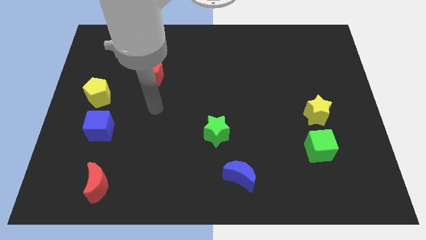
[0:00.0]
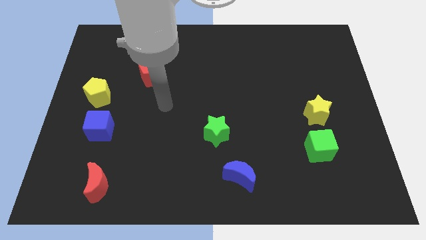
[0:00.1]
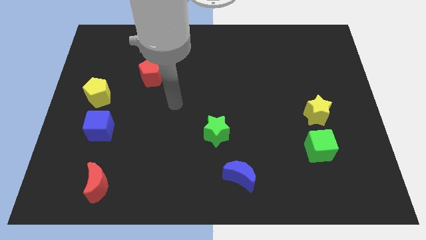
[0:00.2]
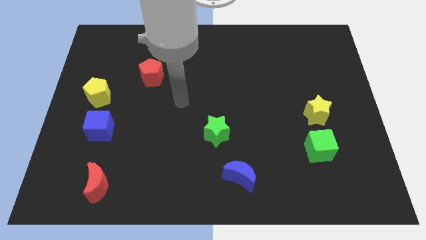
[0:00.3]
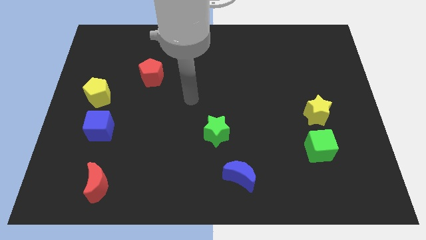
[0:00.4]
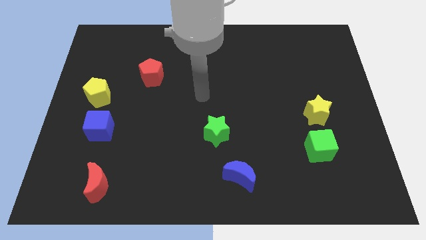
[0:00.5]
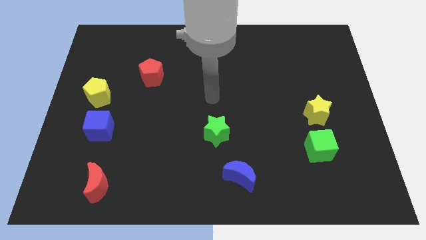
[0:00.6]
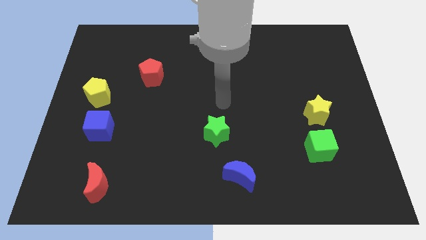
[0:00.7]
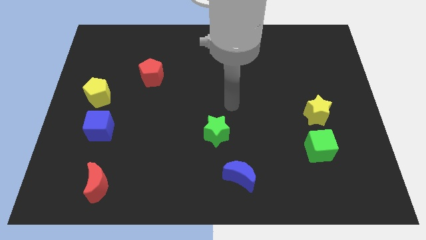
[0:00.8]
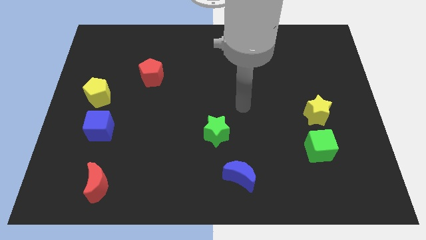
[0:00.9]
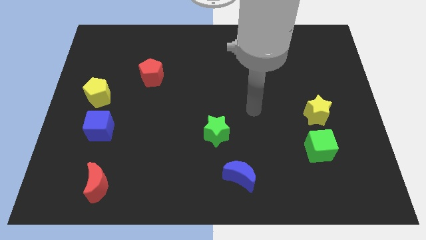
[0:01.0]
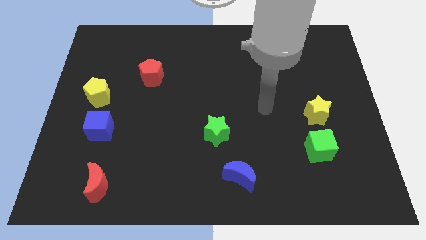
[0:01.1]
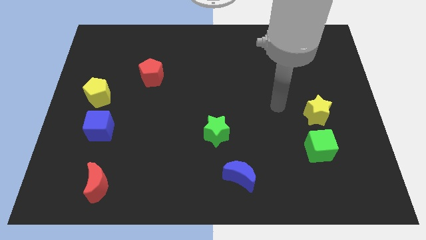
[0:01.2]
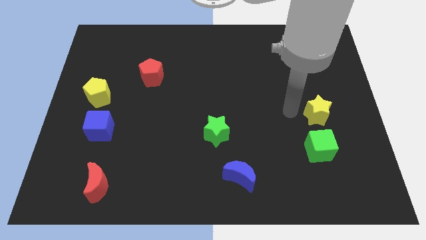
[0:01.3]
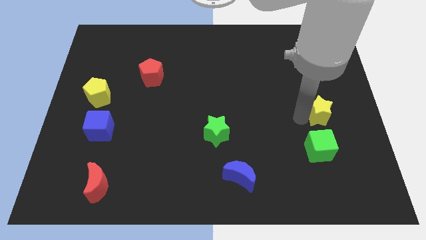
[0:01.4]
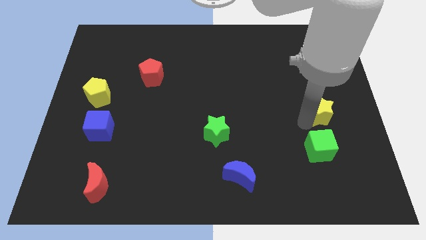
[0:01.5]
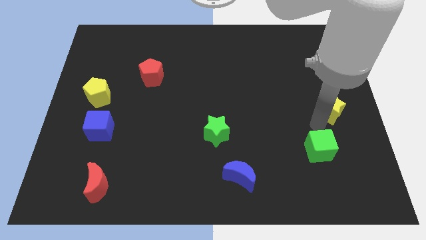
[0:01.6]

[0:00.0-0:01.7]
pull the green cube apart from the yellow star

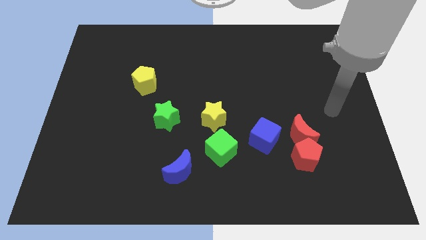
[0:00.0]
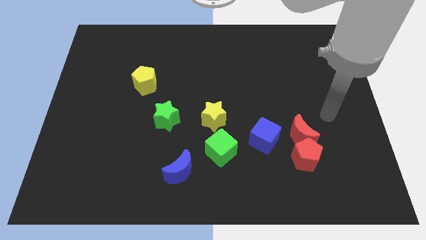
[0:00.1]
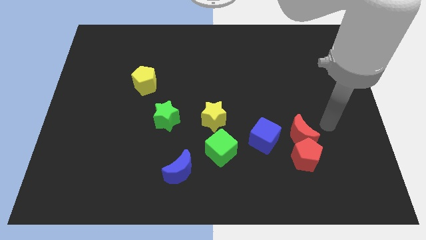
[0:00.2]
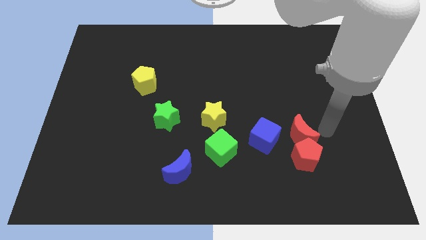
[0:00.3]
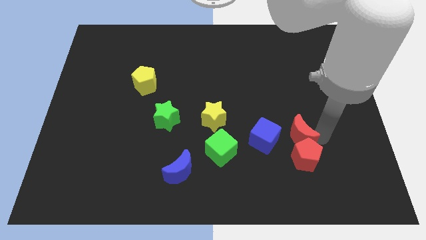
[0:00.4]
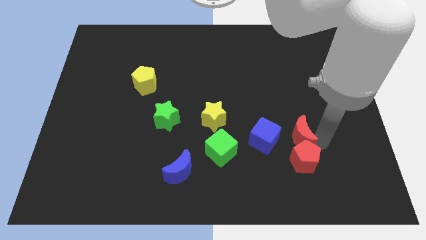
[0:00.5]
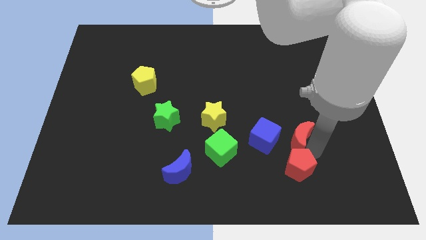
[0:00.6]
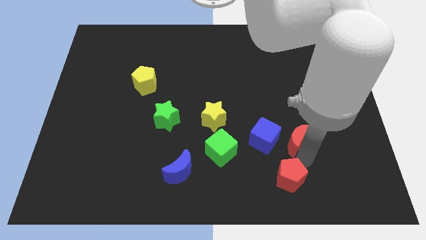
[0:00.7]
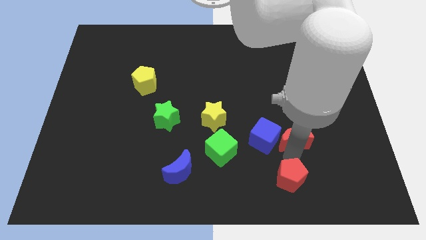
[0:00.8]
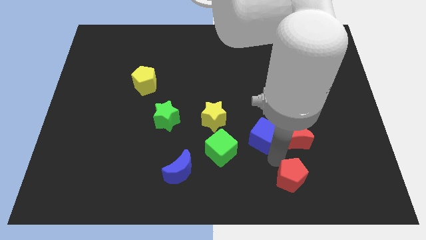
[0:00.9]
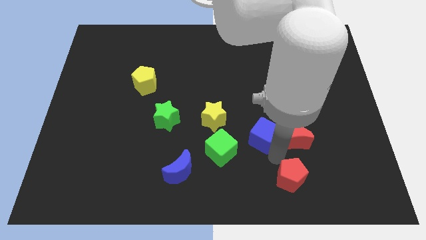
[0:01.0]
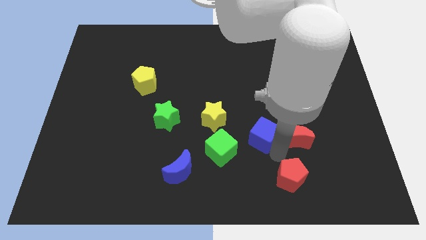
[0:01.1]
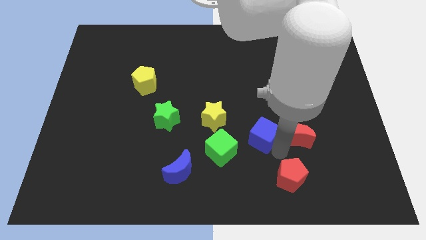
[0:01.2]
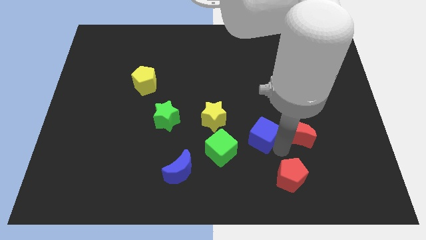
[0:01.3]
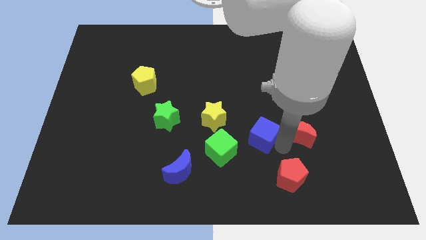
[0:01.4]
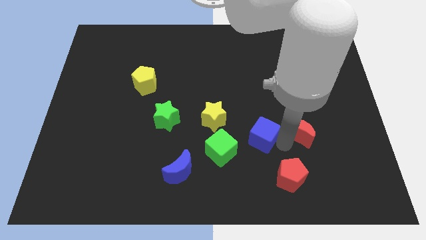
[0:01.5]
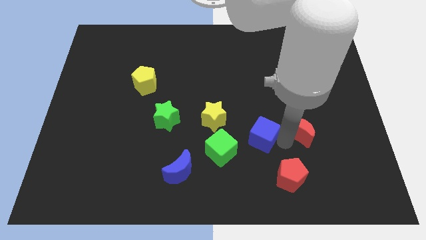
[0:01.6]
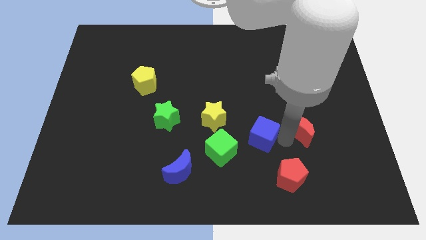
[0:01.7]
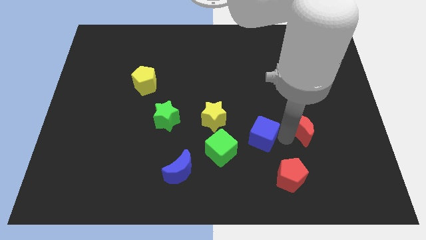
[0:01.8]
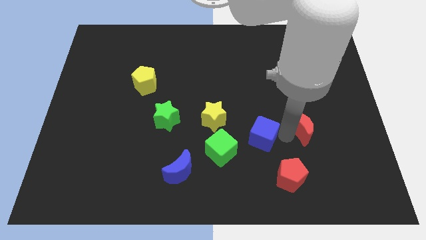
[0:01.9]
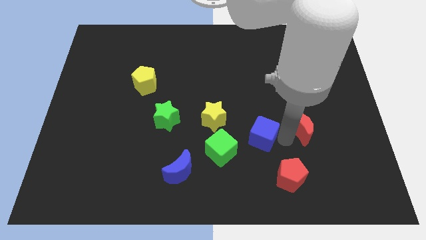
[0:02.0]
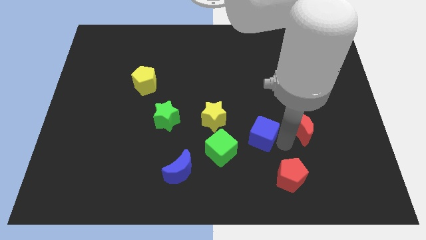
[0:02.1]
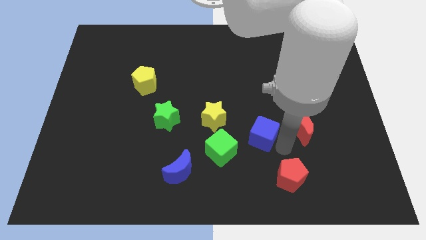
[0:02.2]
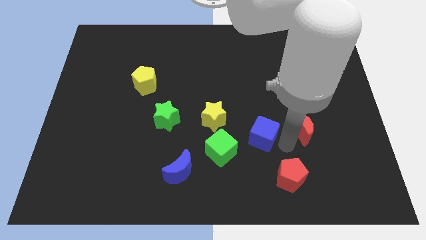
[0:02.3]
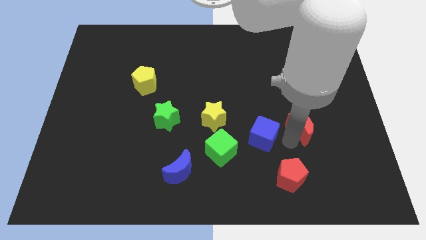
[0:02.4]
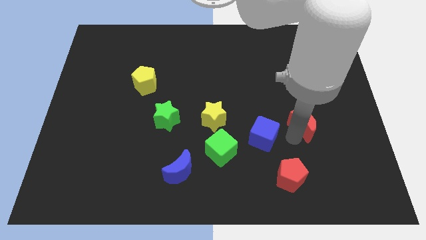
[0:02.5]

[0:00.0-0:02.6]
separate the red moon from the red pentagon and blue cube

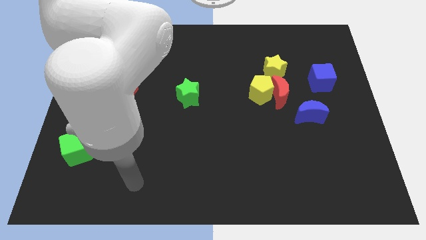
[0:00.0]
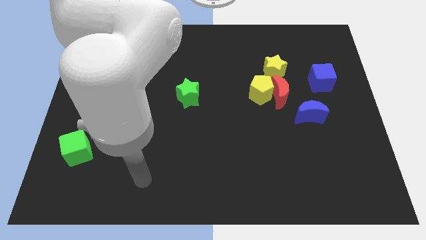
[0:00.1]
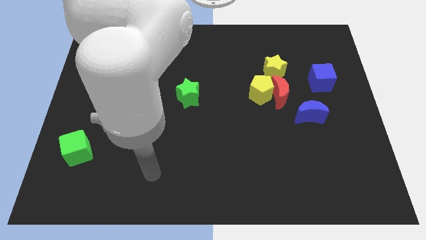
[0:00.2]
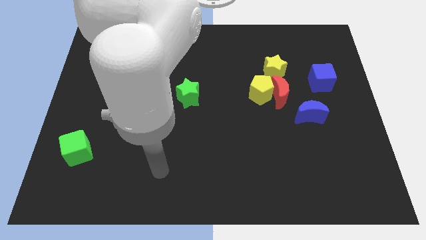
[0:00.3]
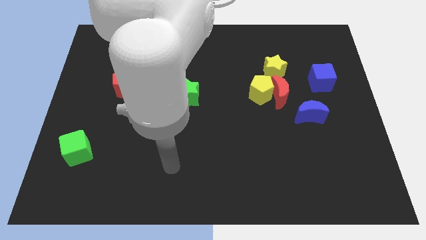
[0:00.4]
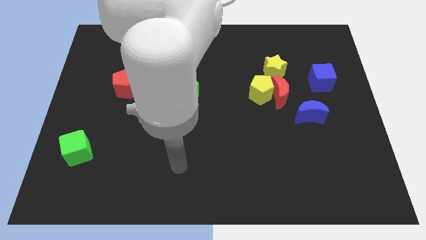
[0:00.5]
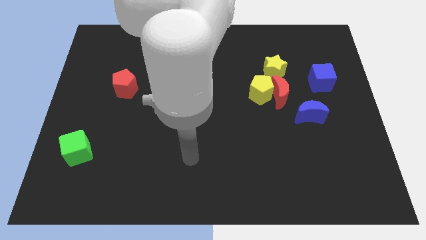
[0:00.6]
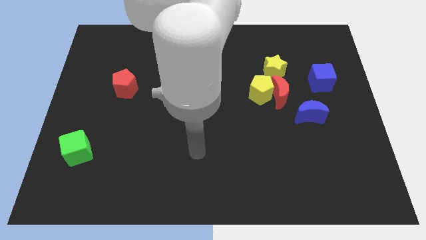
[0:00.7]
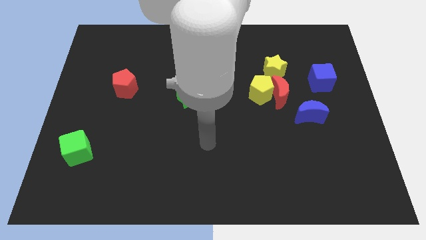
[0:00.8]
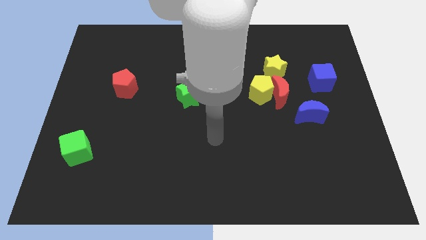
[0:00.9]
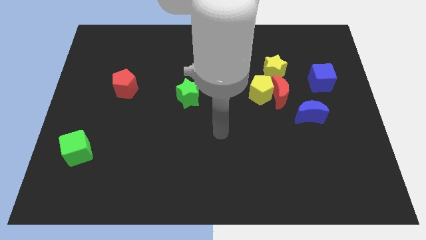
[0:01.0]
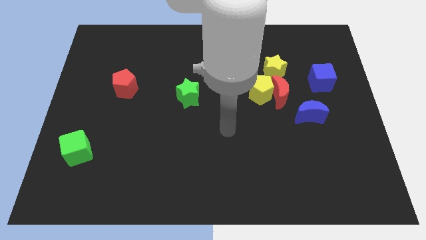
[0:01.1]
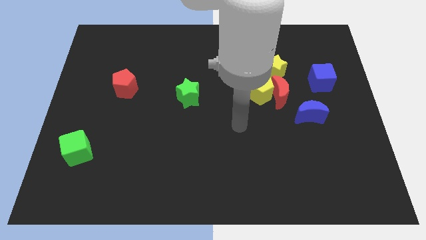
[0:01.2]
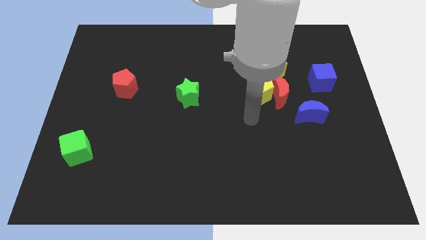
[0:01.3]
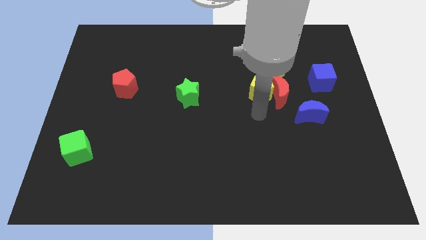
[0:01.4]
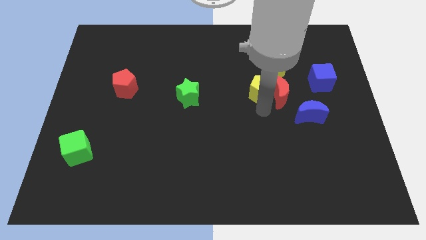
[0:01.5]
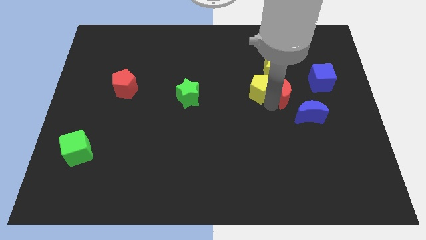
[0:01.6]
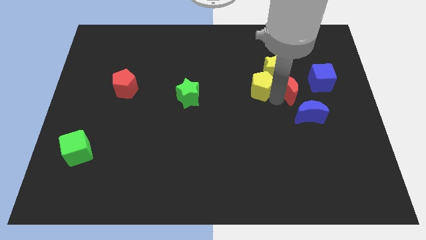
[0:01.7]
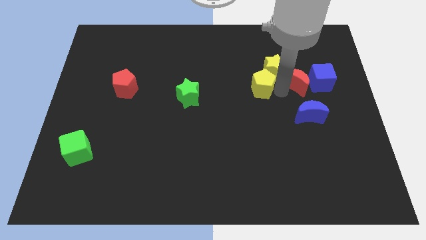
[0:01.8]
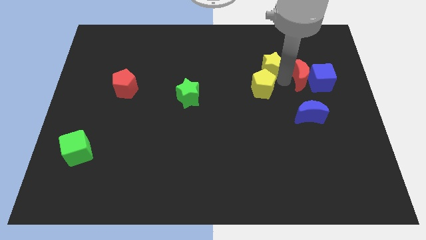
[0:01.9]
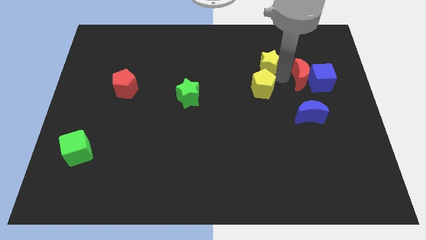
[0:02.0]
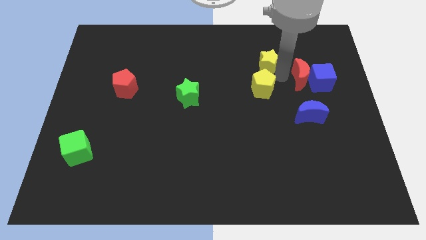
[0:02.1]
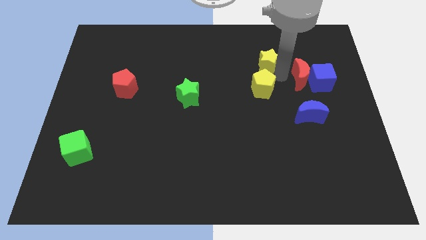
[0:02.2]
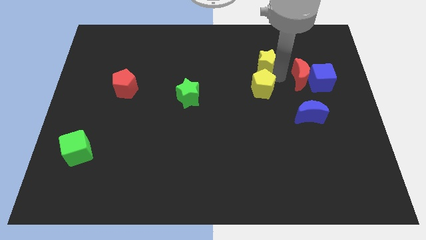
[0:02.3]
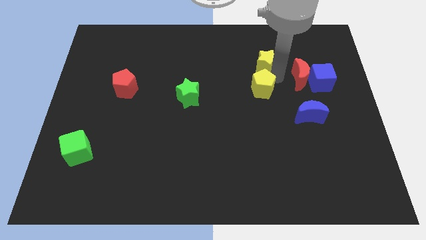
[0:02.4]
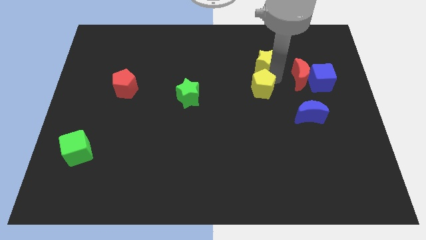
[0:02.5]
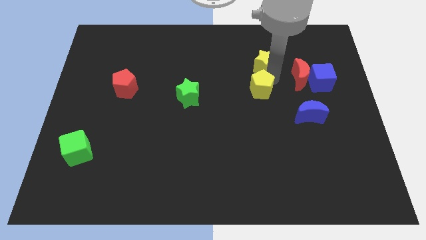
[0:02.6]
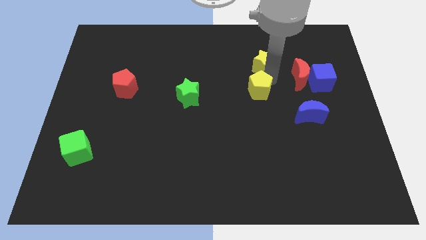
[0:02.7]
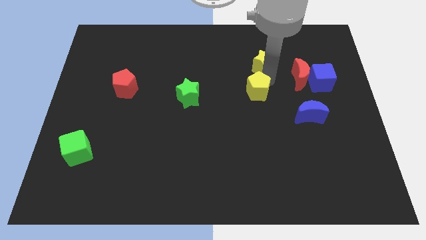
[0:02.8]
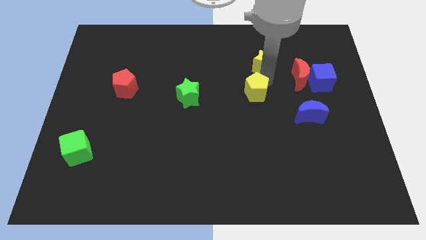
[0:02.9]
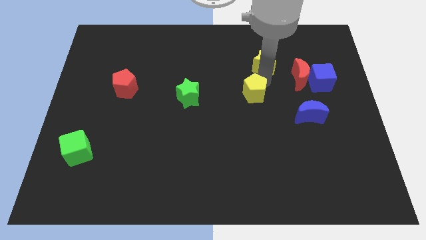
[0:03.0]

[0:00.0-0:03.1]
separate the yellow pentagon from the red moon and yellow star

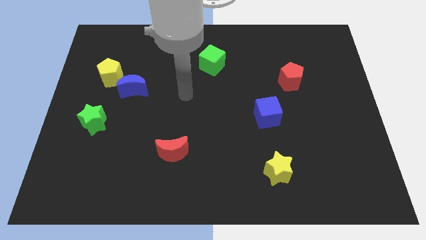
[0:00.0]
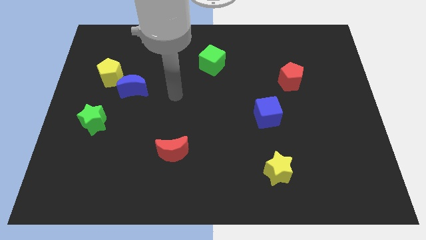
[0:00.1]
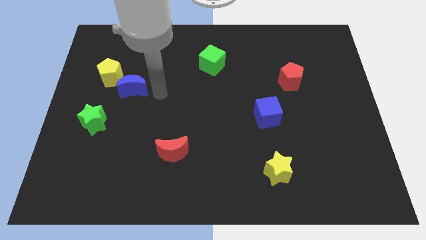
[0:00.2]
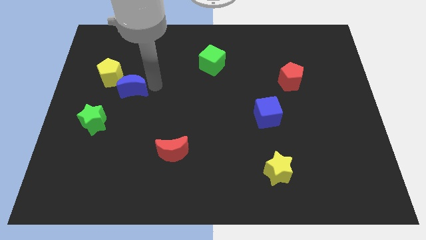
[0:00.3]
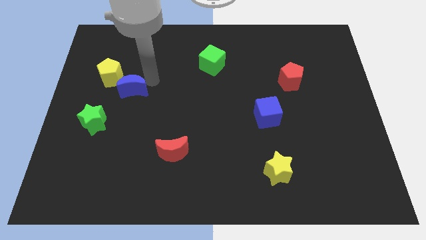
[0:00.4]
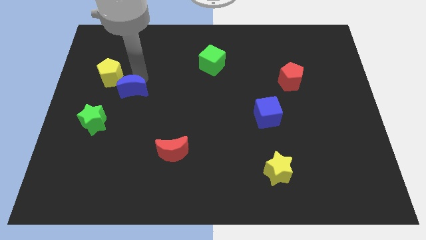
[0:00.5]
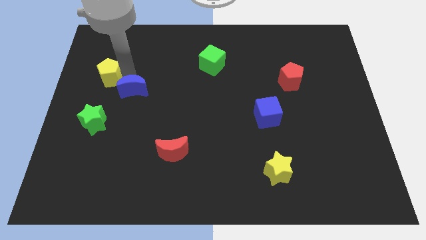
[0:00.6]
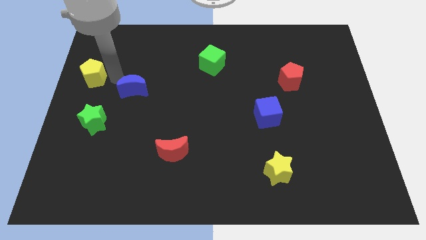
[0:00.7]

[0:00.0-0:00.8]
separate the blue moon from the yellow pentagon

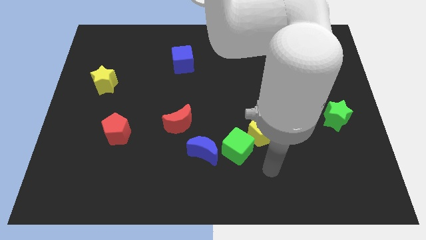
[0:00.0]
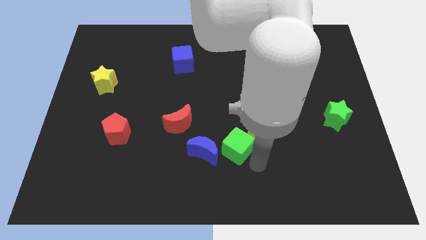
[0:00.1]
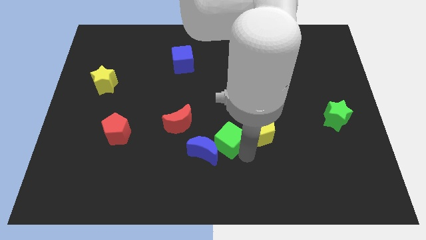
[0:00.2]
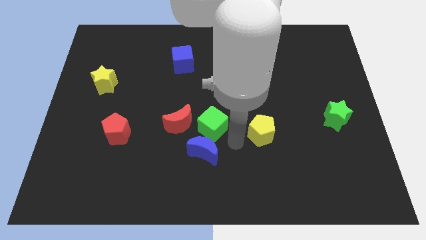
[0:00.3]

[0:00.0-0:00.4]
separate the yellow pentagon from the green cube

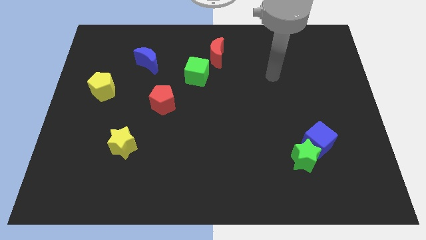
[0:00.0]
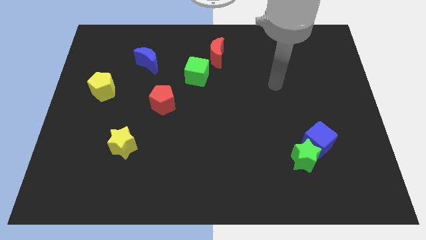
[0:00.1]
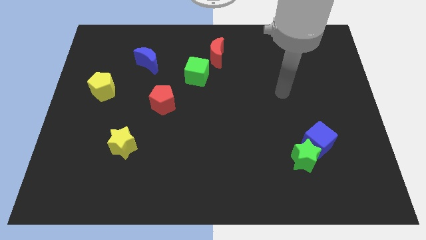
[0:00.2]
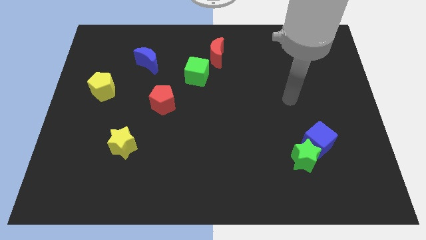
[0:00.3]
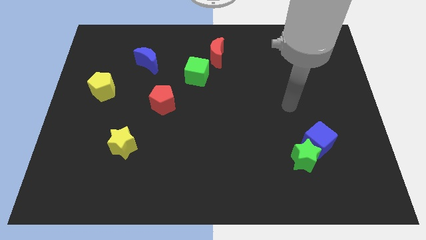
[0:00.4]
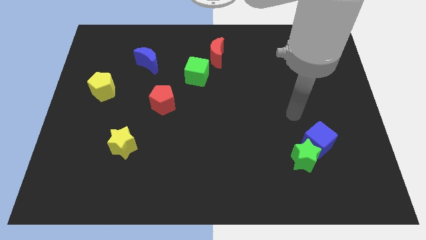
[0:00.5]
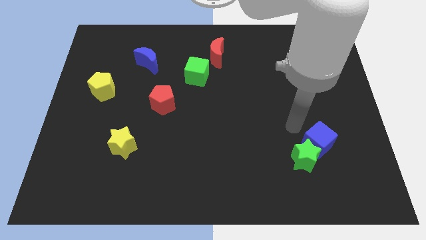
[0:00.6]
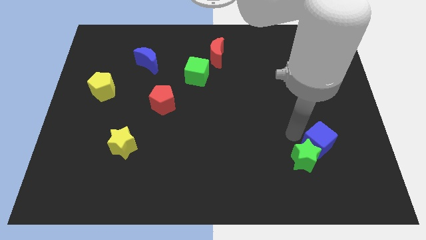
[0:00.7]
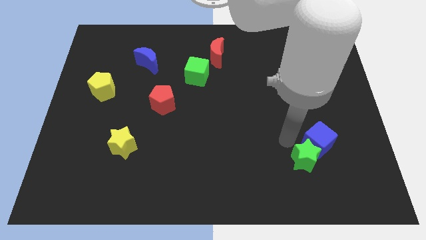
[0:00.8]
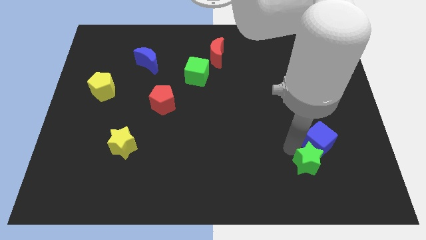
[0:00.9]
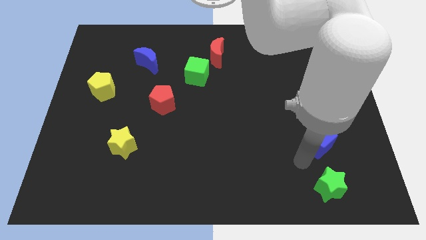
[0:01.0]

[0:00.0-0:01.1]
separate the blue cube from the green star
